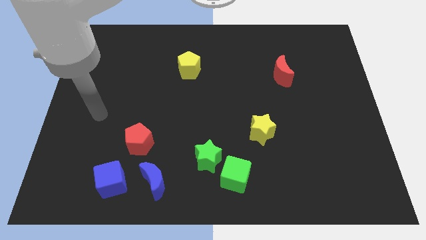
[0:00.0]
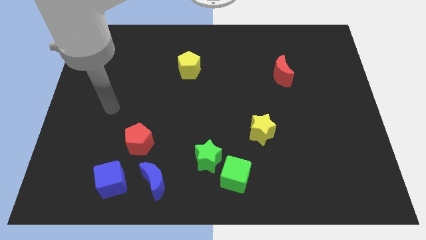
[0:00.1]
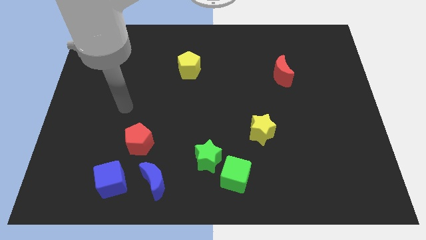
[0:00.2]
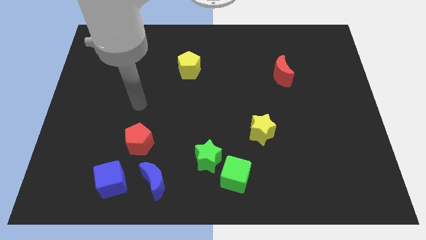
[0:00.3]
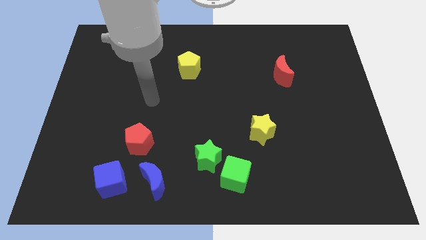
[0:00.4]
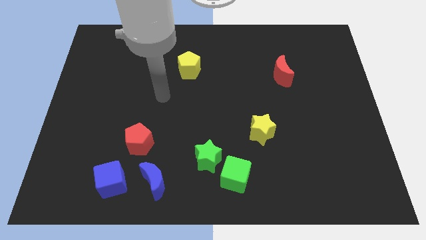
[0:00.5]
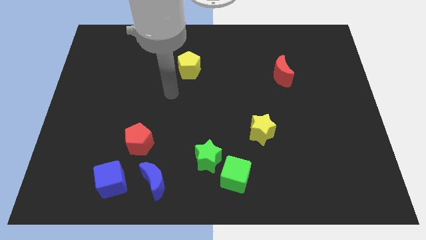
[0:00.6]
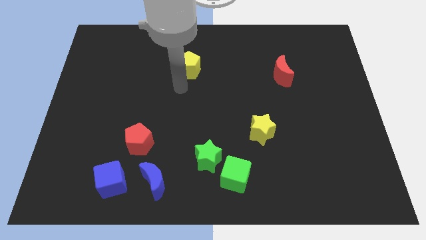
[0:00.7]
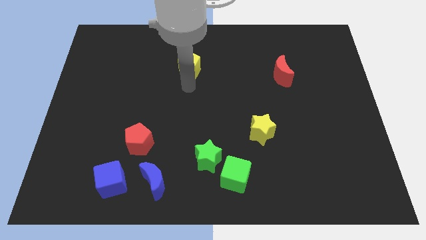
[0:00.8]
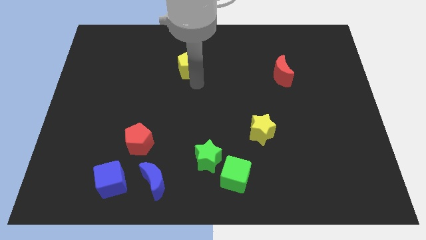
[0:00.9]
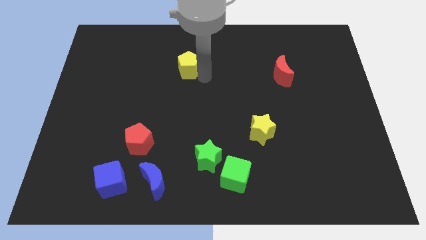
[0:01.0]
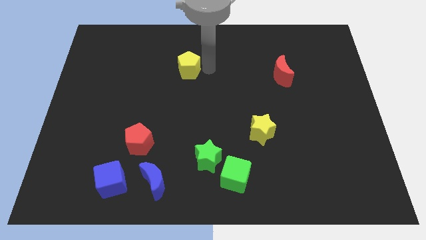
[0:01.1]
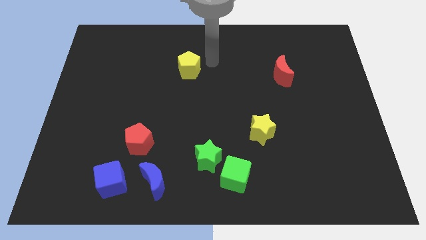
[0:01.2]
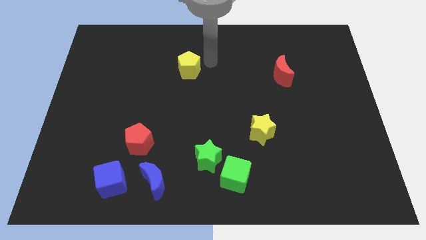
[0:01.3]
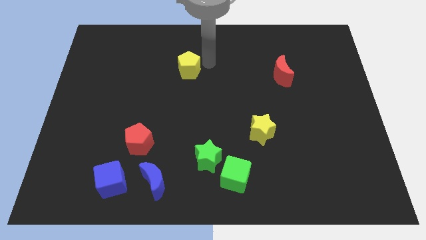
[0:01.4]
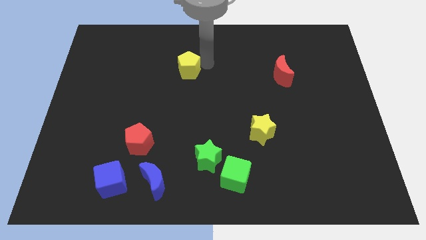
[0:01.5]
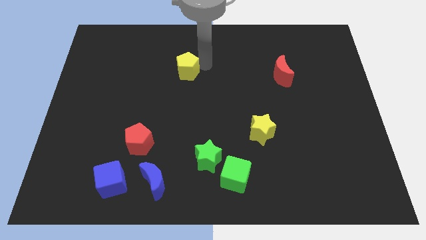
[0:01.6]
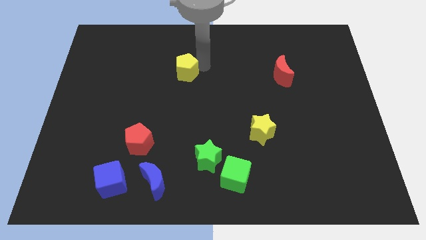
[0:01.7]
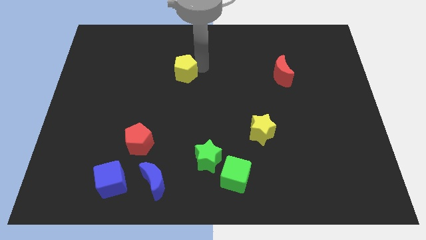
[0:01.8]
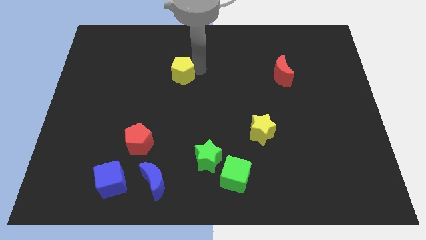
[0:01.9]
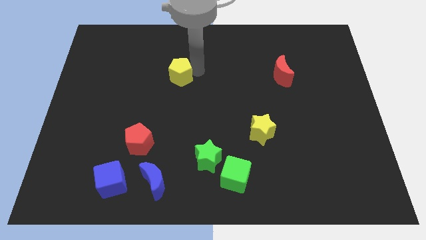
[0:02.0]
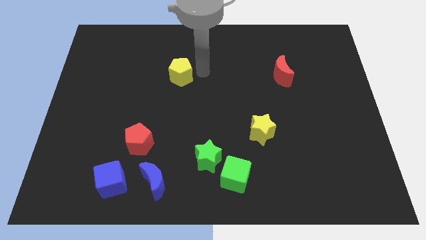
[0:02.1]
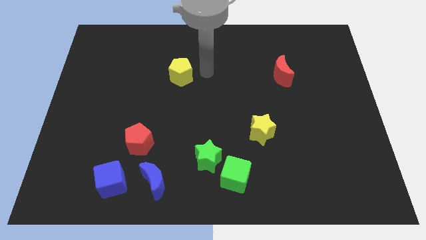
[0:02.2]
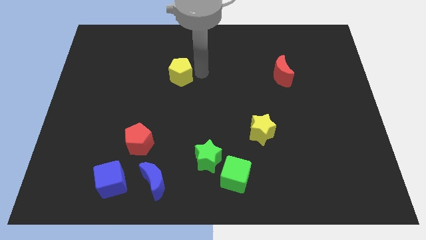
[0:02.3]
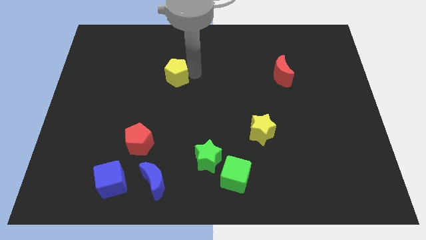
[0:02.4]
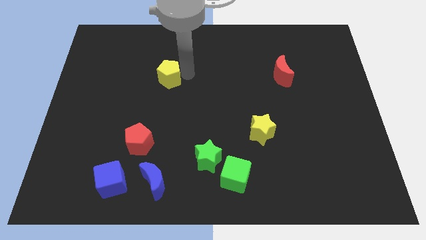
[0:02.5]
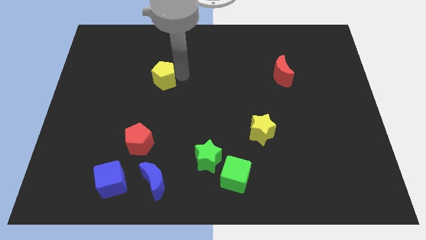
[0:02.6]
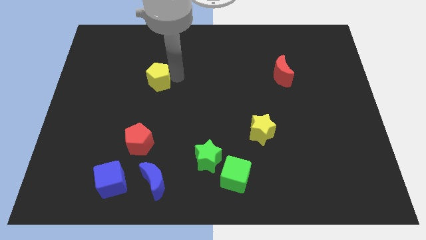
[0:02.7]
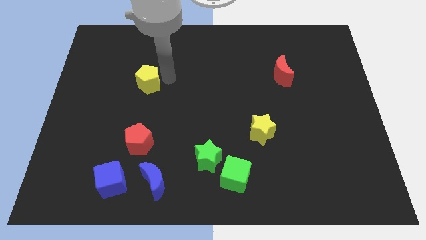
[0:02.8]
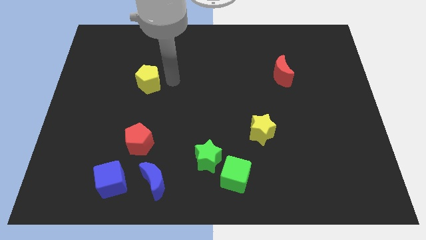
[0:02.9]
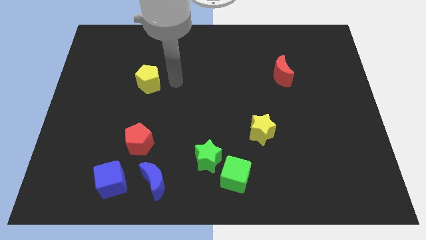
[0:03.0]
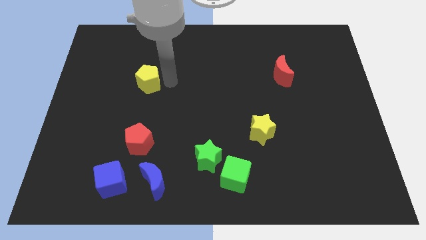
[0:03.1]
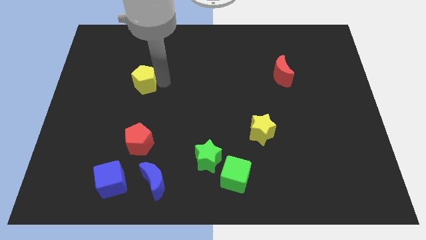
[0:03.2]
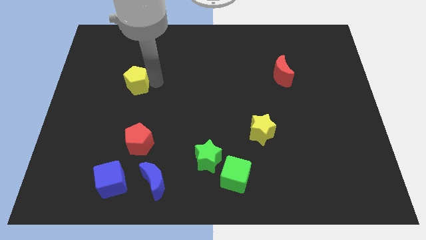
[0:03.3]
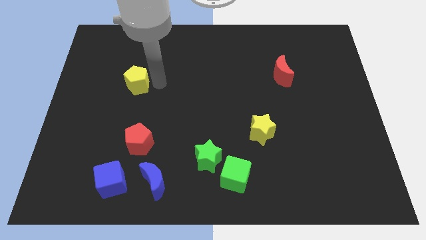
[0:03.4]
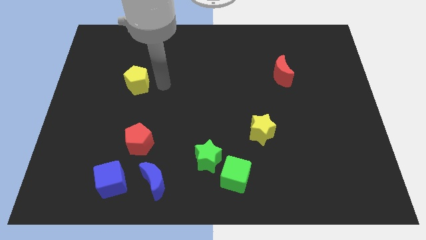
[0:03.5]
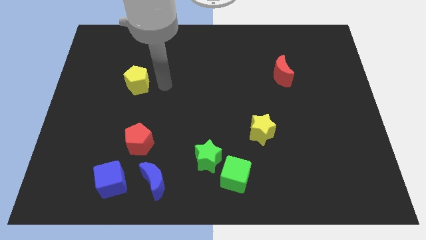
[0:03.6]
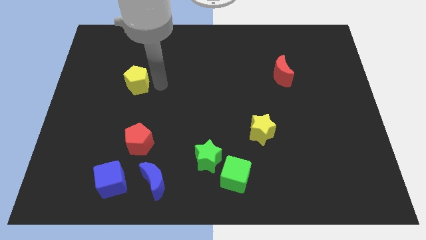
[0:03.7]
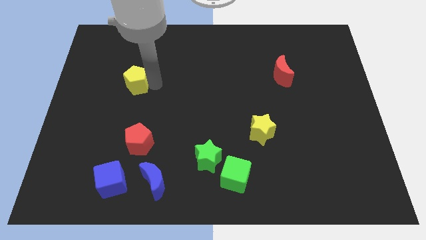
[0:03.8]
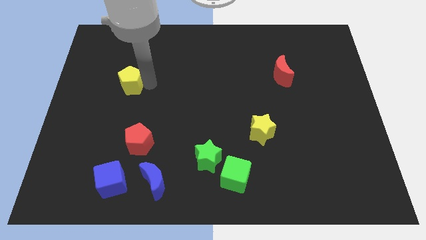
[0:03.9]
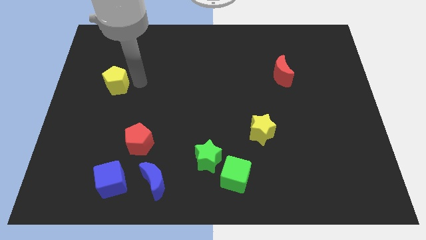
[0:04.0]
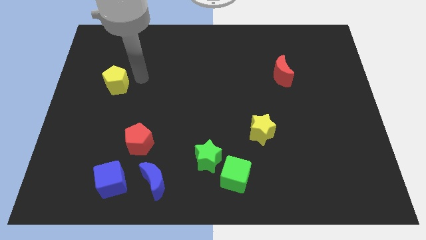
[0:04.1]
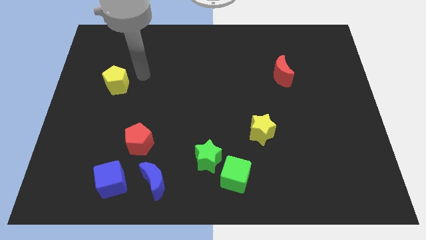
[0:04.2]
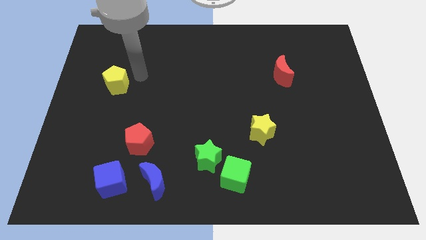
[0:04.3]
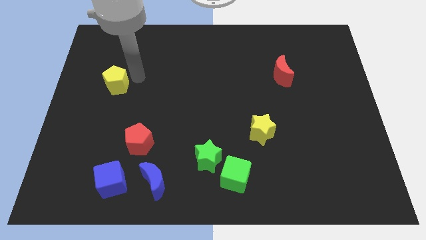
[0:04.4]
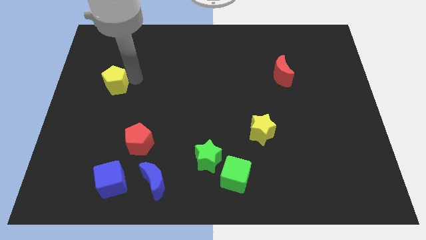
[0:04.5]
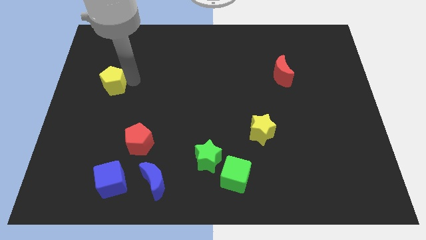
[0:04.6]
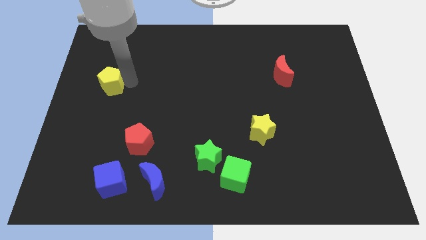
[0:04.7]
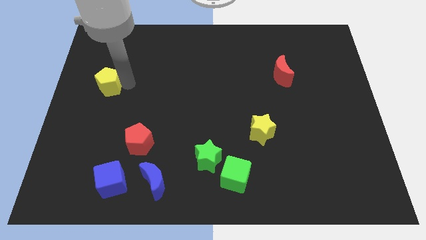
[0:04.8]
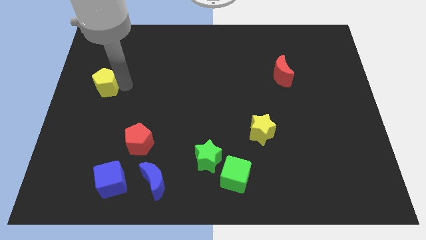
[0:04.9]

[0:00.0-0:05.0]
move the yellow pentagon to the left side
